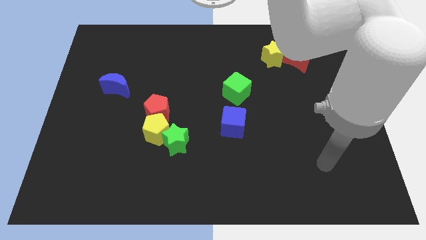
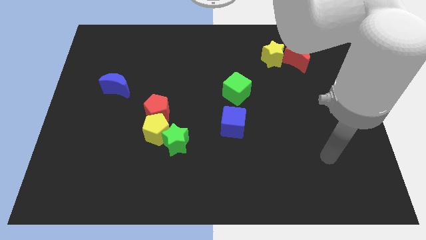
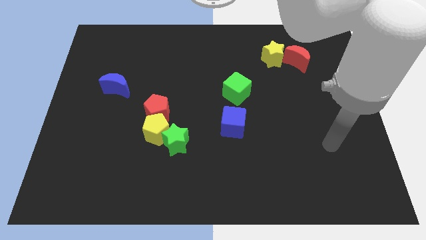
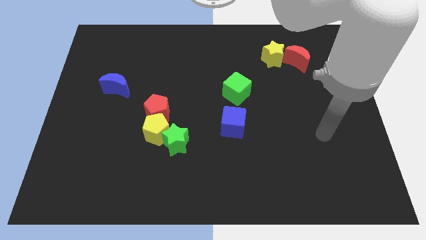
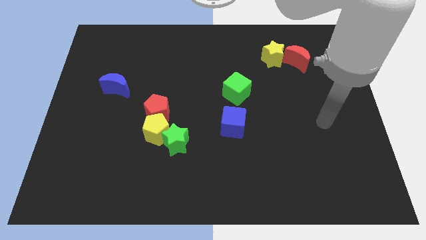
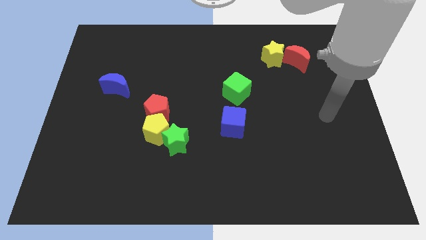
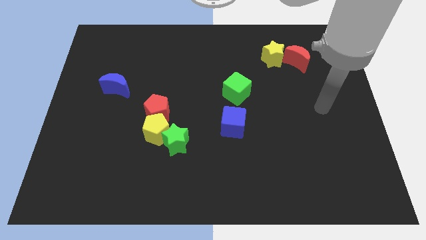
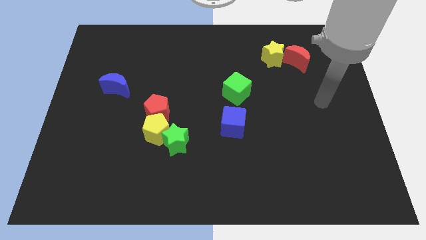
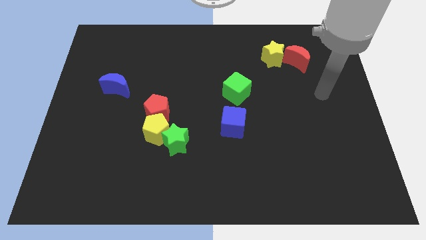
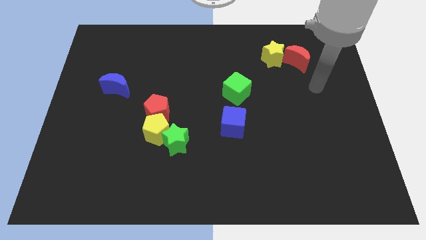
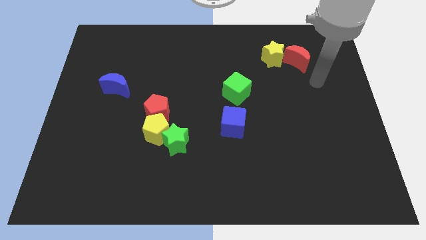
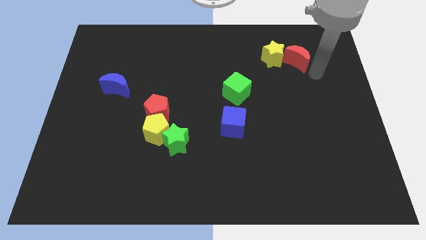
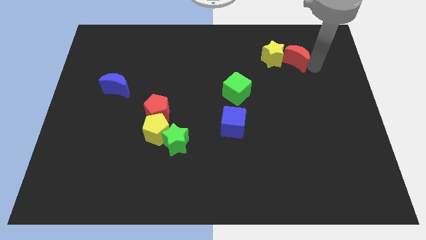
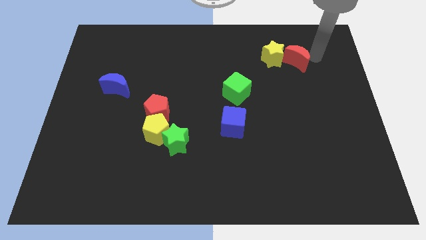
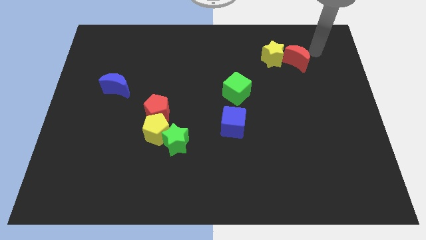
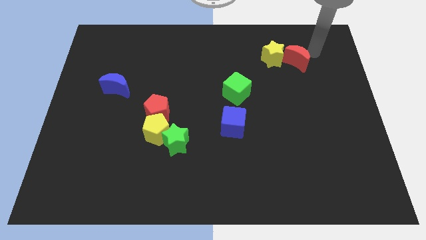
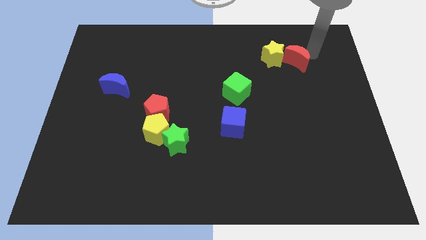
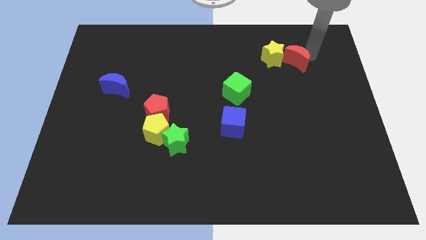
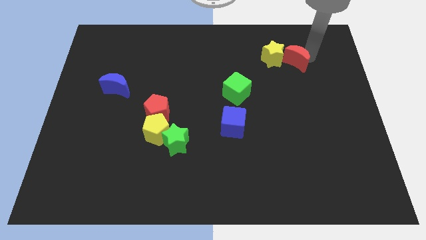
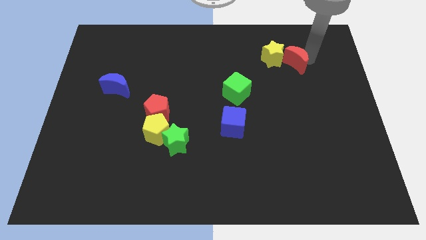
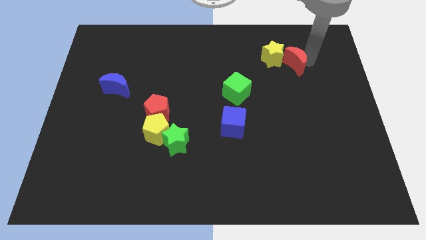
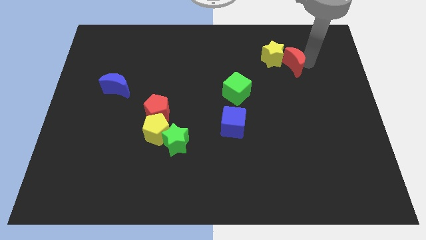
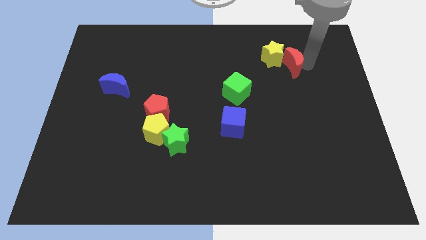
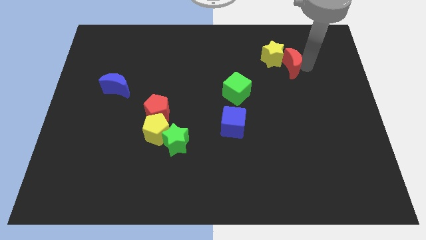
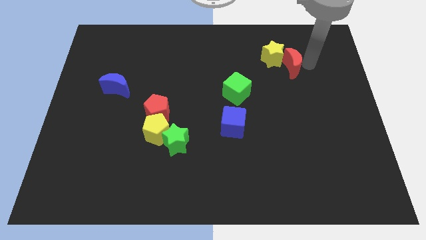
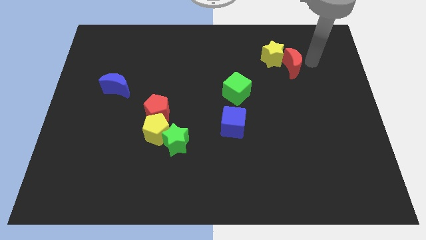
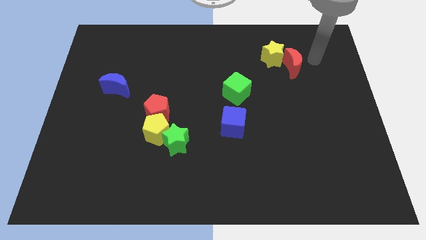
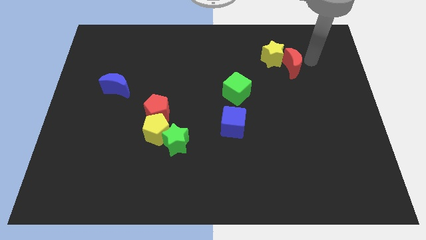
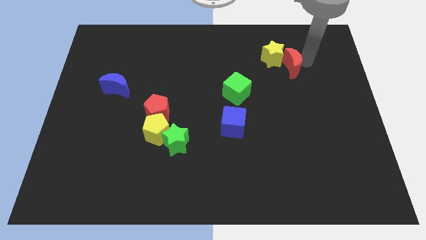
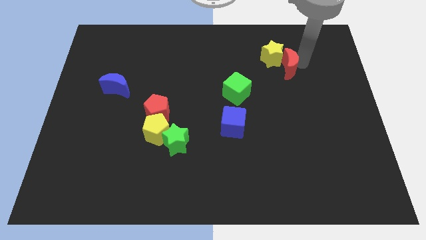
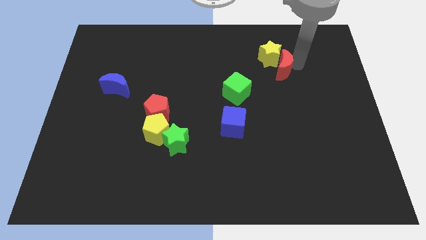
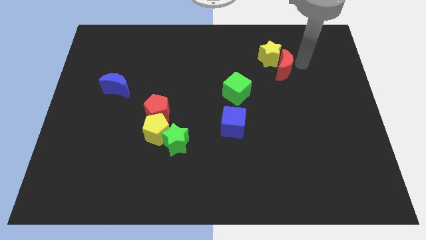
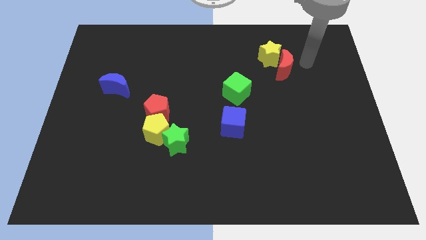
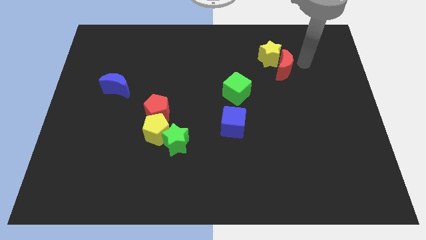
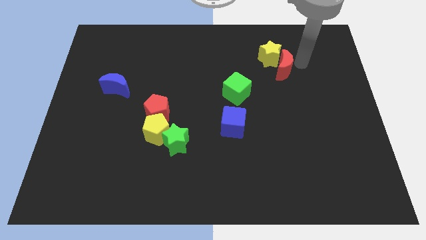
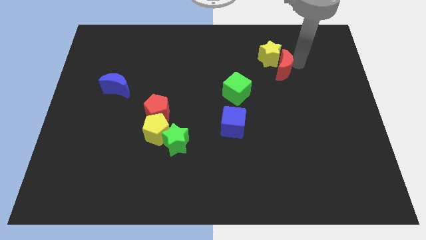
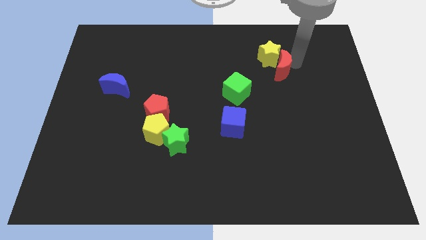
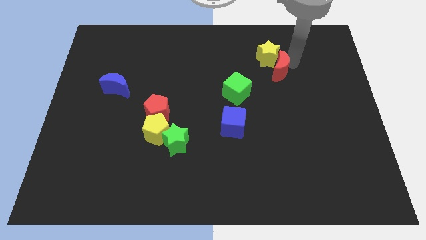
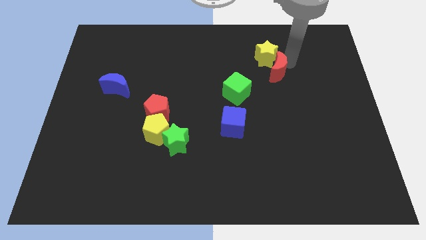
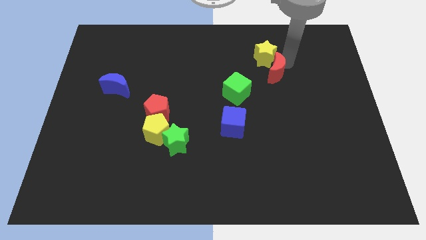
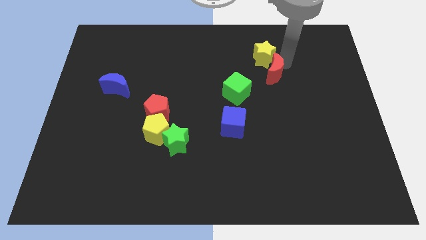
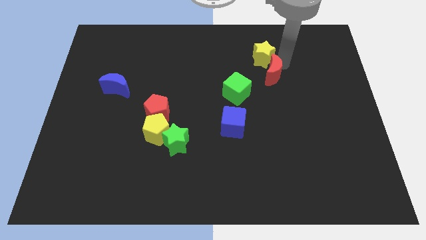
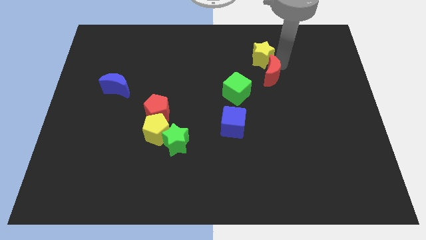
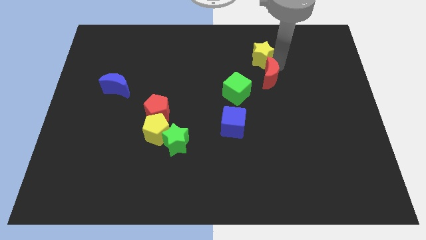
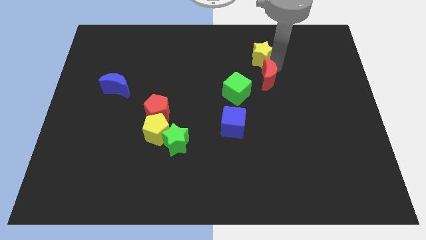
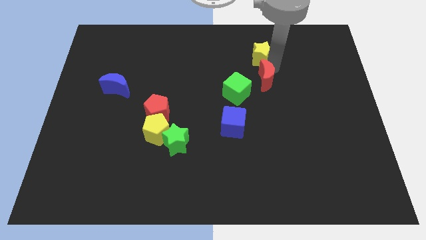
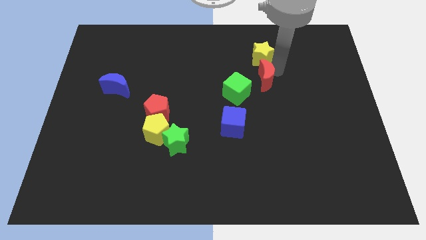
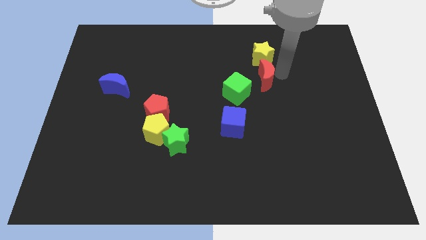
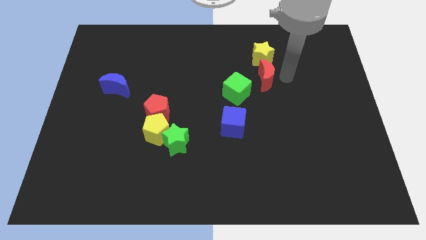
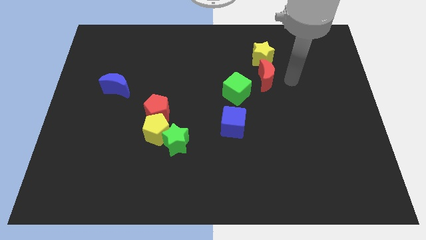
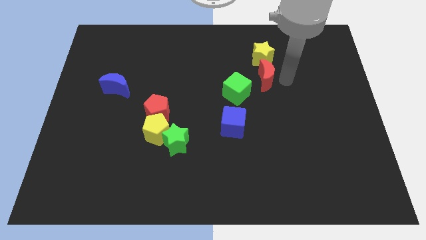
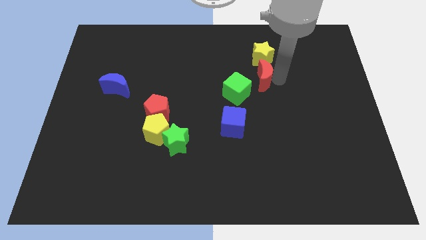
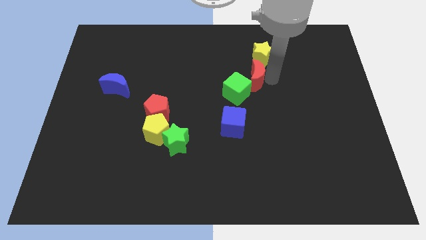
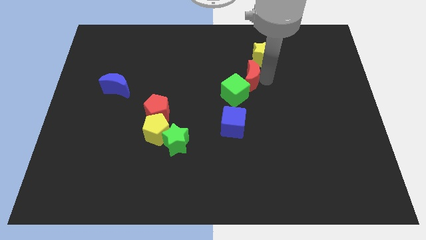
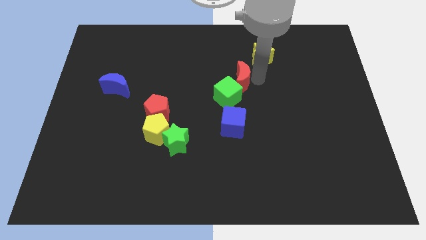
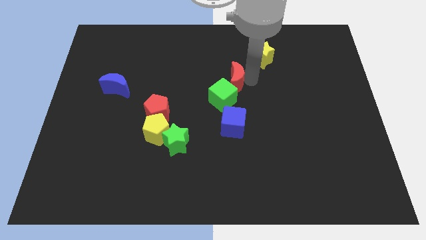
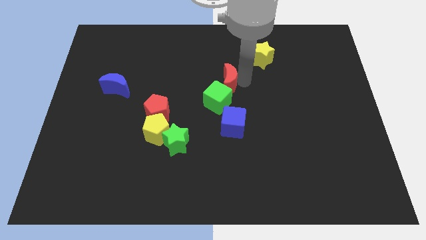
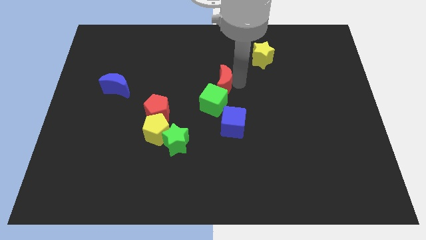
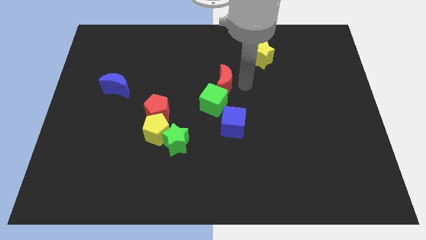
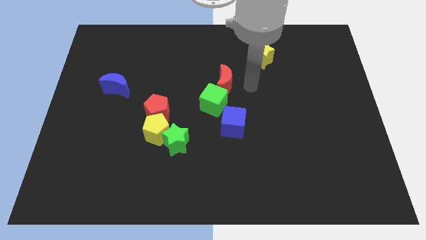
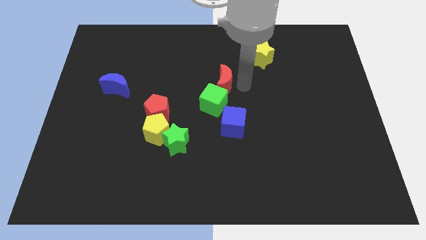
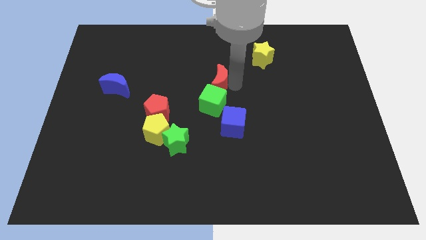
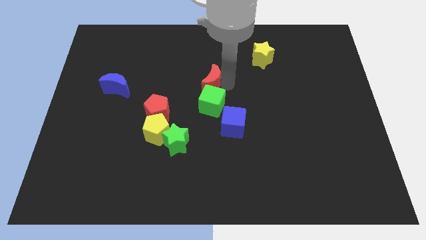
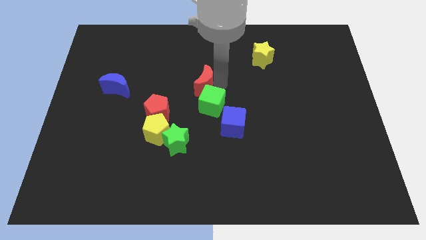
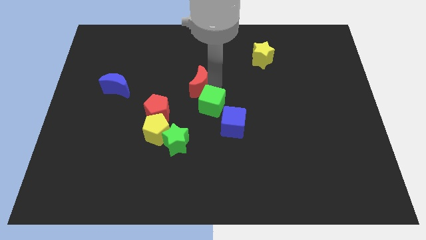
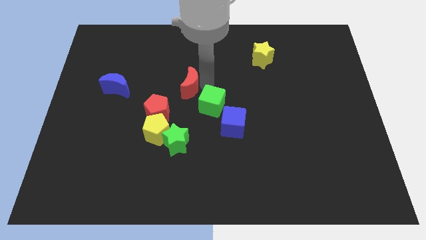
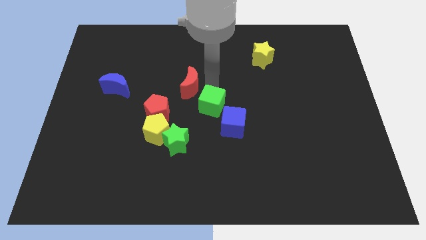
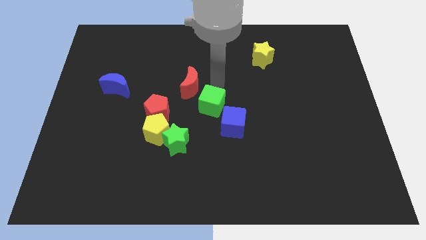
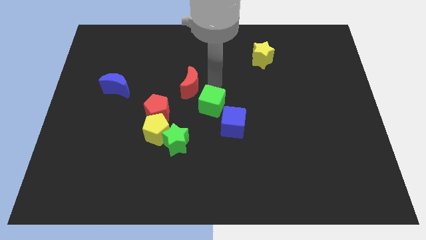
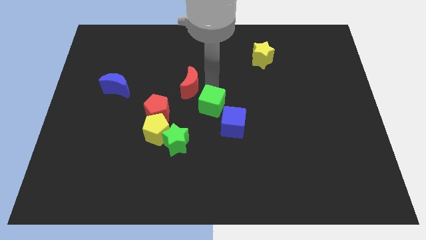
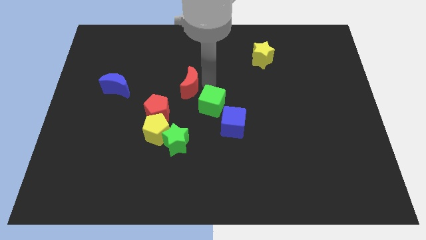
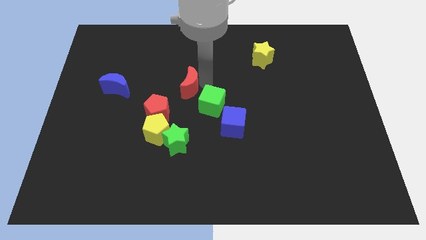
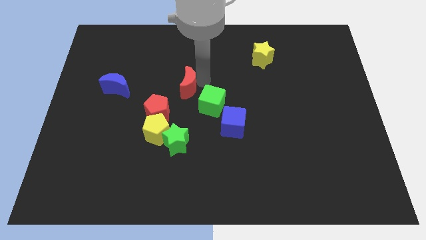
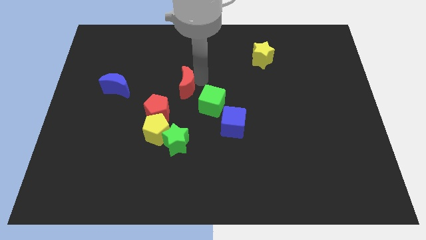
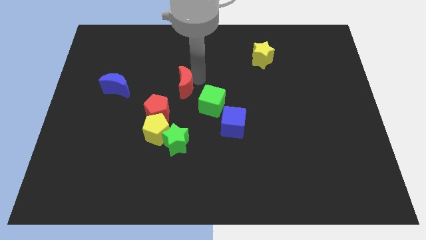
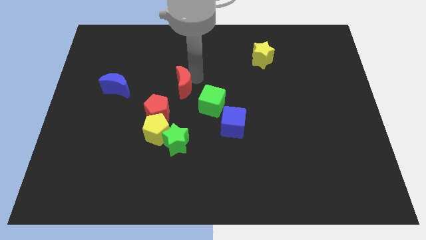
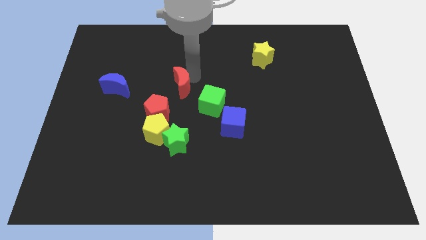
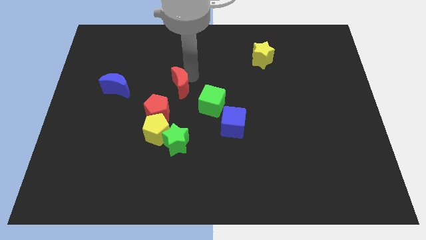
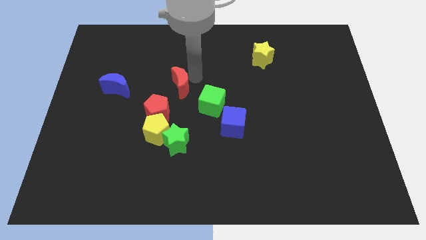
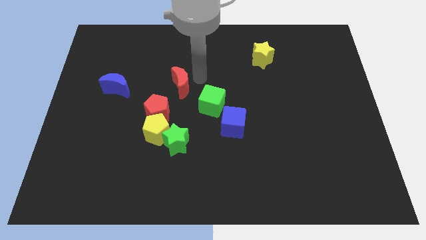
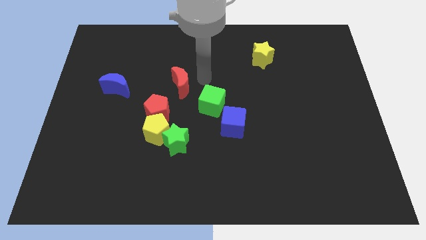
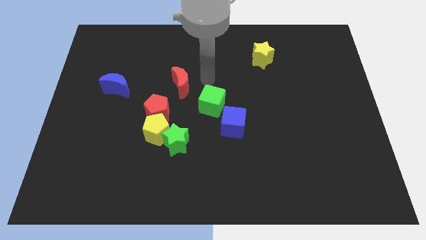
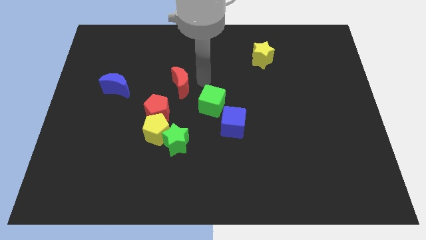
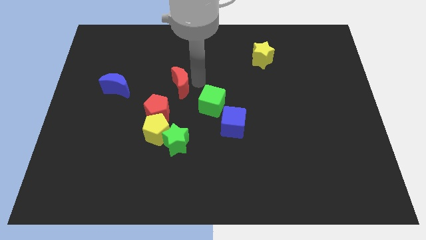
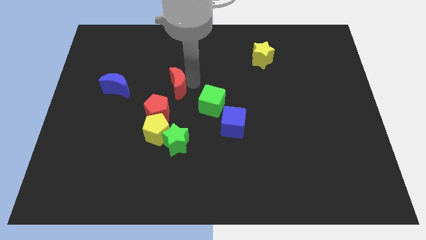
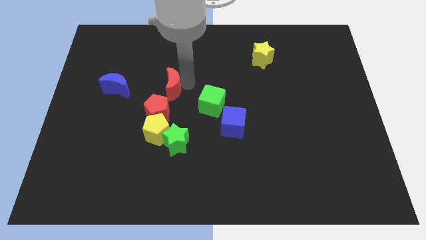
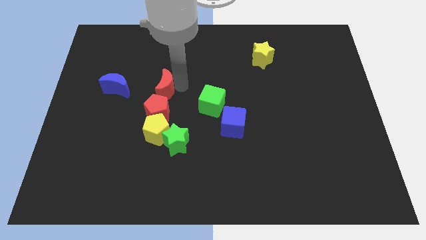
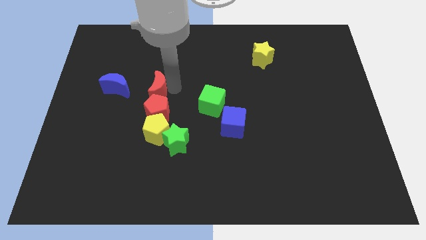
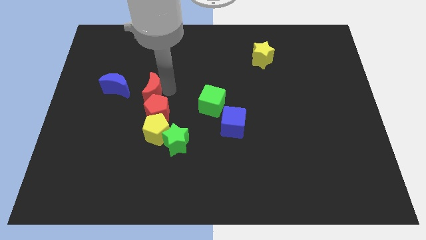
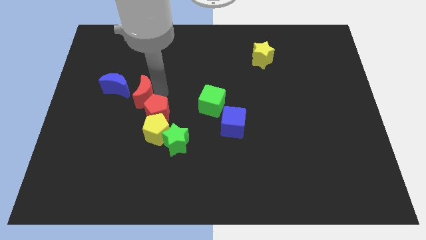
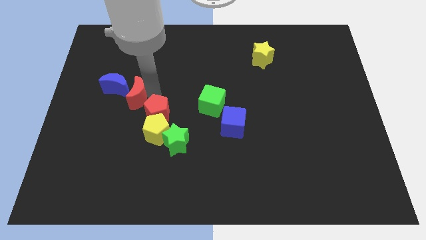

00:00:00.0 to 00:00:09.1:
push the red moon close to the blue moon
